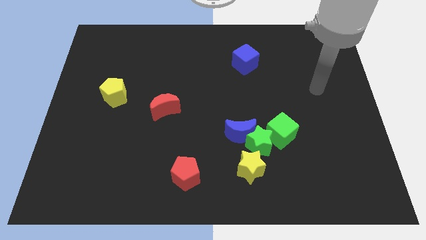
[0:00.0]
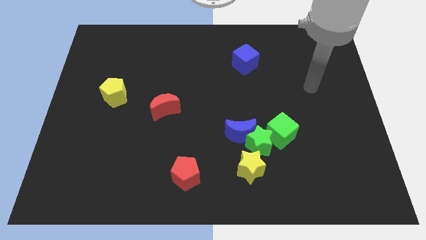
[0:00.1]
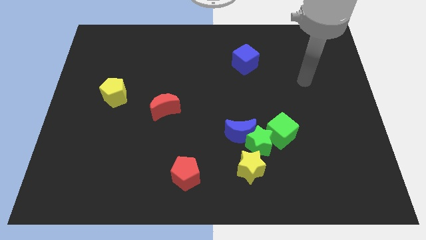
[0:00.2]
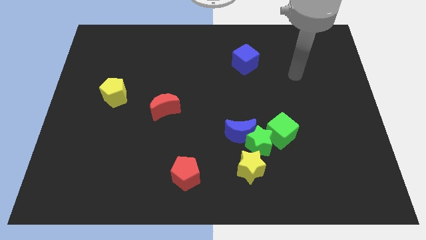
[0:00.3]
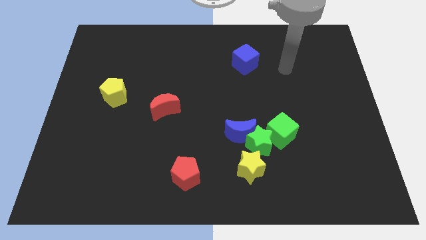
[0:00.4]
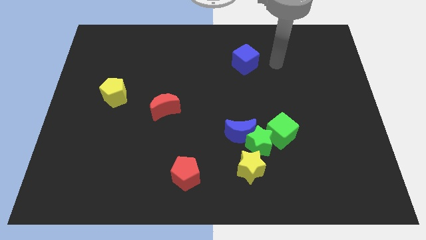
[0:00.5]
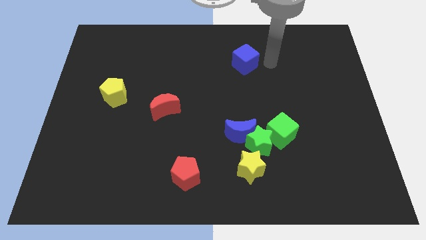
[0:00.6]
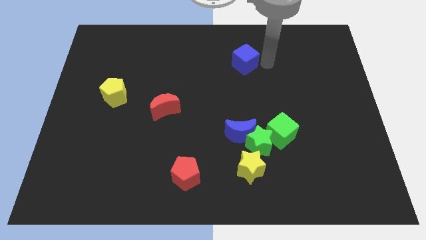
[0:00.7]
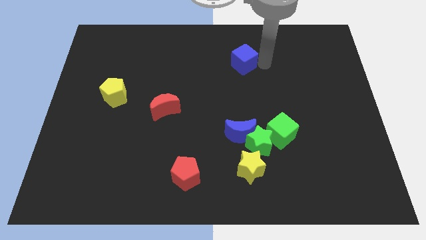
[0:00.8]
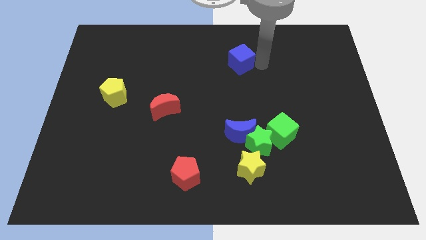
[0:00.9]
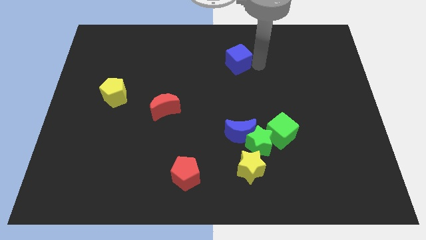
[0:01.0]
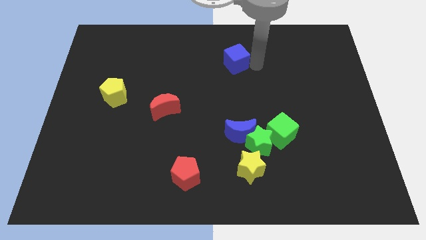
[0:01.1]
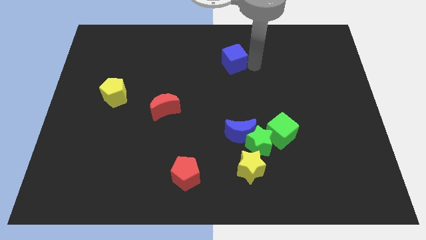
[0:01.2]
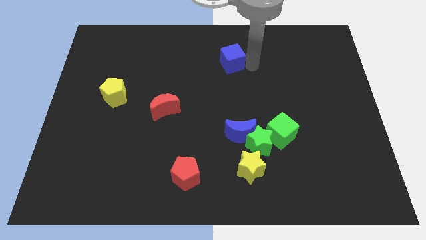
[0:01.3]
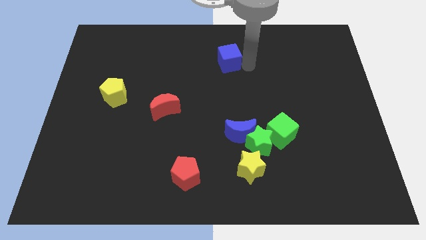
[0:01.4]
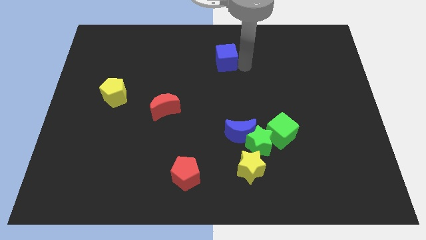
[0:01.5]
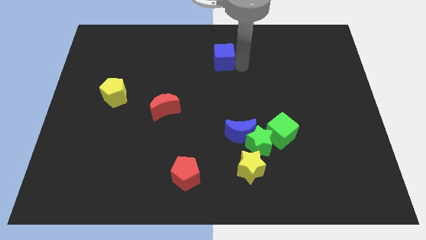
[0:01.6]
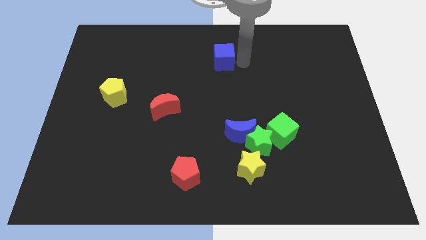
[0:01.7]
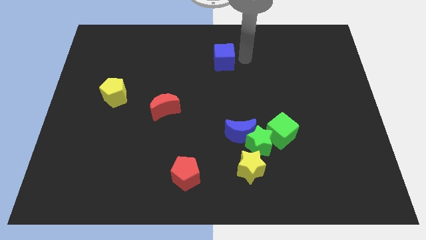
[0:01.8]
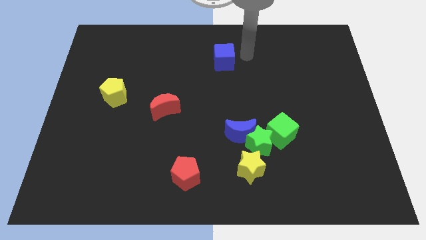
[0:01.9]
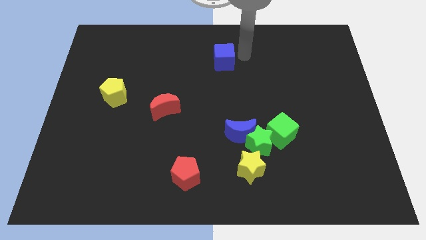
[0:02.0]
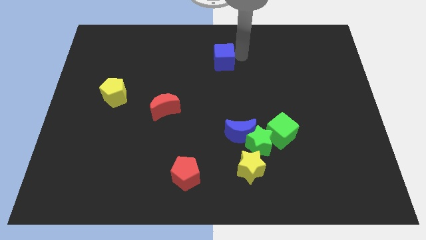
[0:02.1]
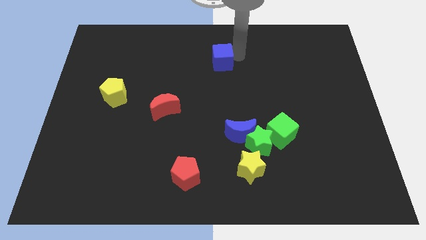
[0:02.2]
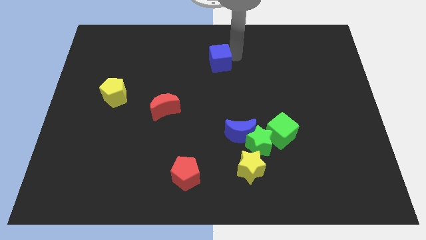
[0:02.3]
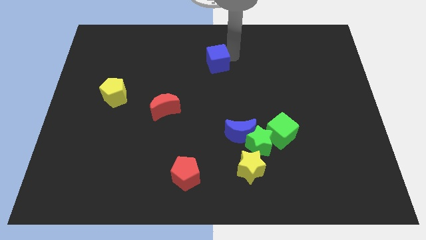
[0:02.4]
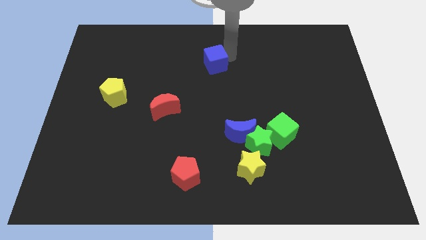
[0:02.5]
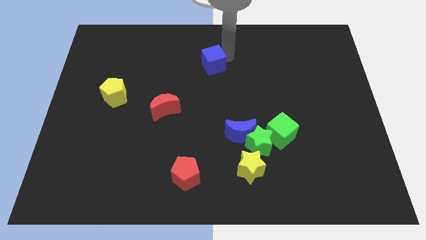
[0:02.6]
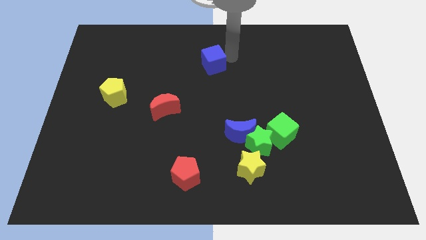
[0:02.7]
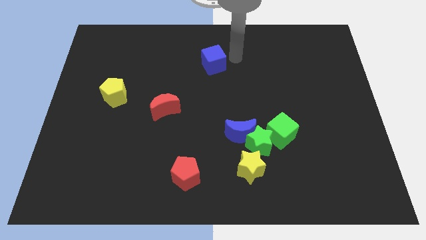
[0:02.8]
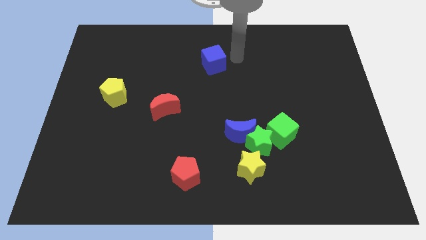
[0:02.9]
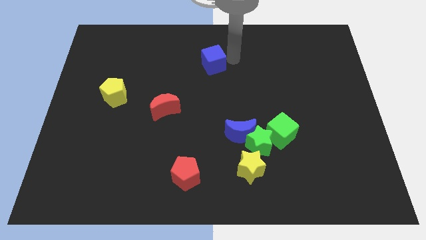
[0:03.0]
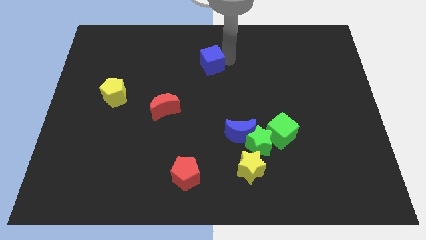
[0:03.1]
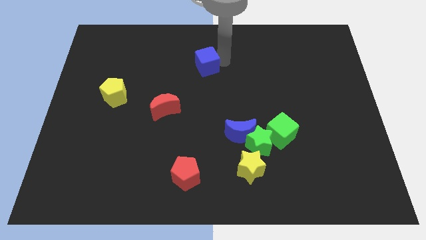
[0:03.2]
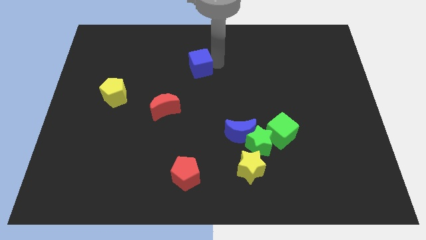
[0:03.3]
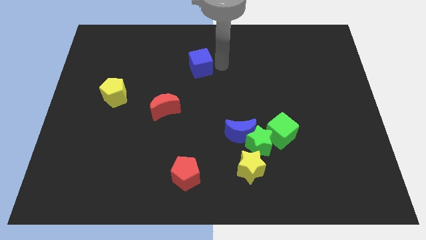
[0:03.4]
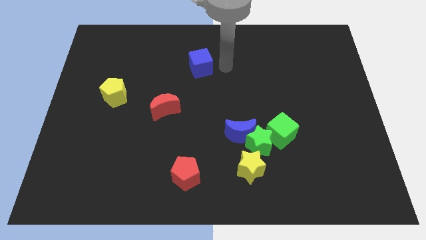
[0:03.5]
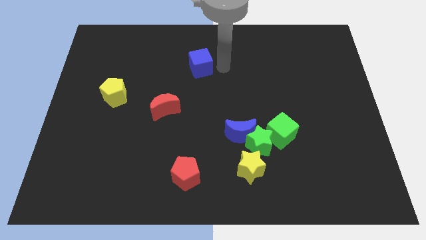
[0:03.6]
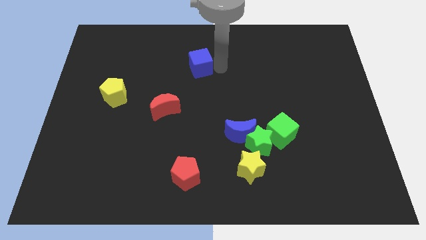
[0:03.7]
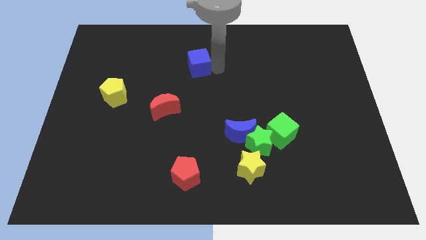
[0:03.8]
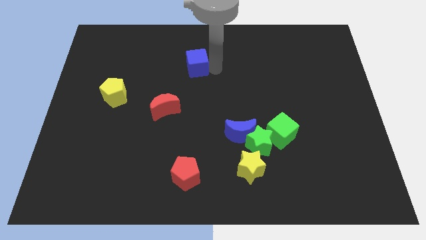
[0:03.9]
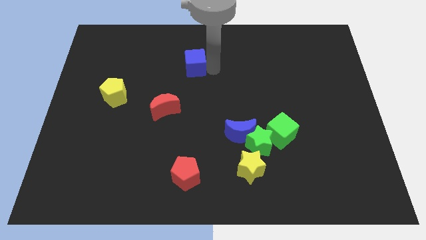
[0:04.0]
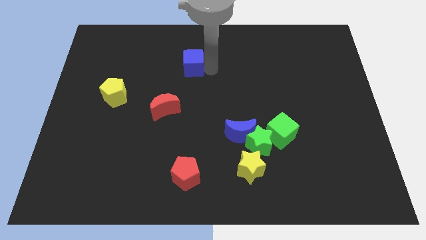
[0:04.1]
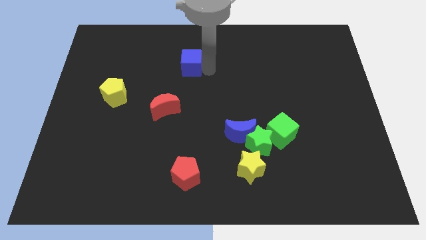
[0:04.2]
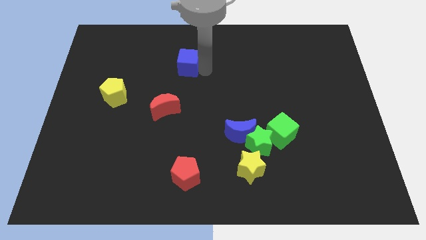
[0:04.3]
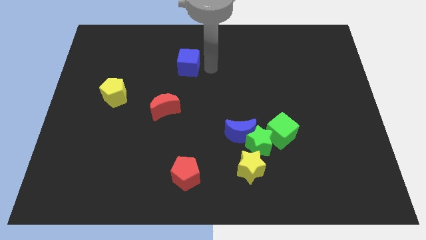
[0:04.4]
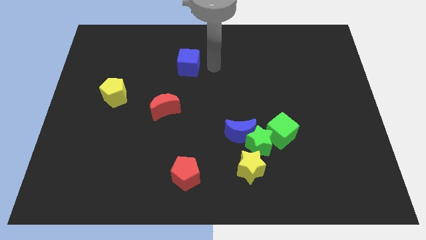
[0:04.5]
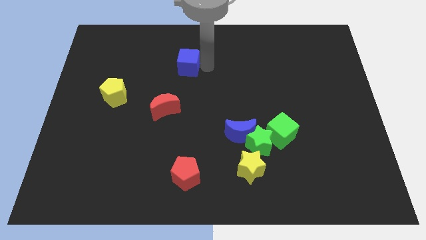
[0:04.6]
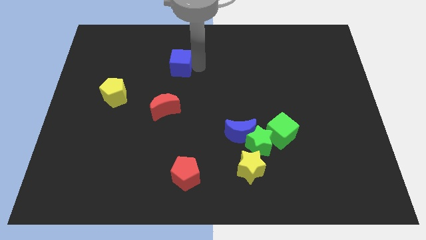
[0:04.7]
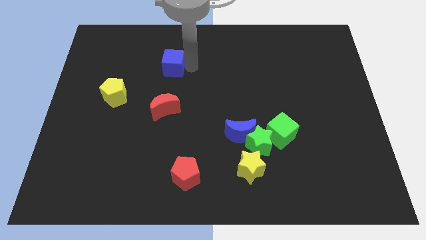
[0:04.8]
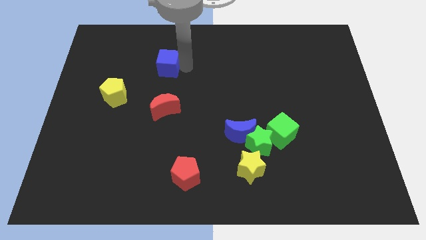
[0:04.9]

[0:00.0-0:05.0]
push the blue cube to the left

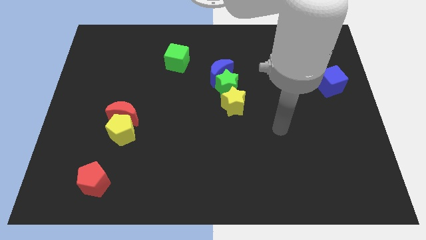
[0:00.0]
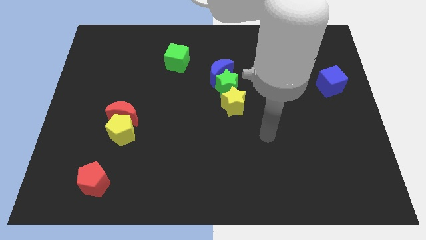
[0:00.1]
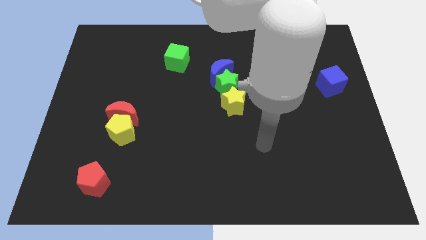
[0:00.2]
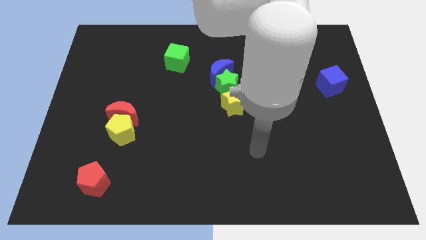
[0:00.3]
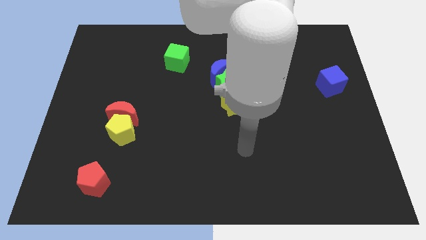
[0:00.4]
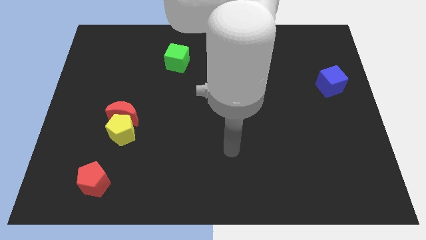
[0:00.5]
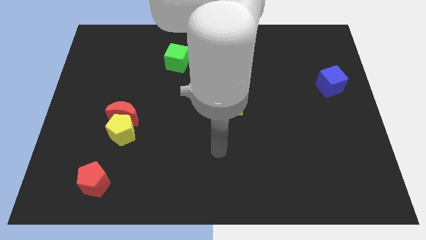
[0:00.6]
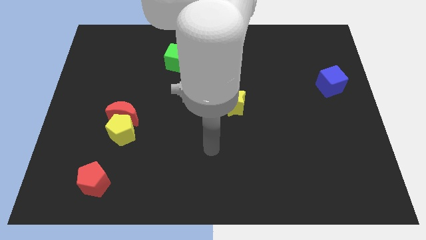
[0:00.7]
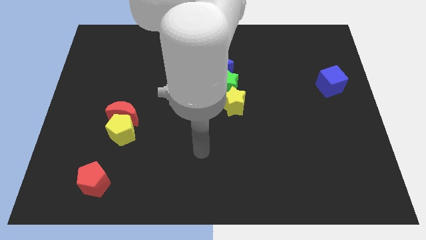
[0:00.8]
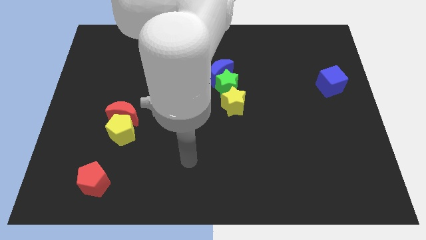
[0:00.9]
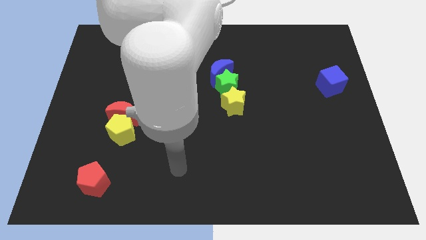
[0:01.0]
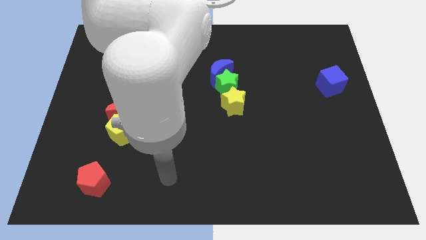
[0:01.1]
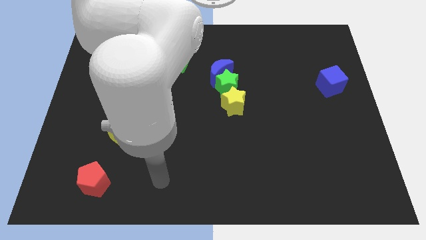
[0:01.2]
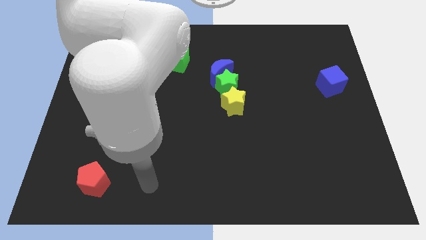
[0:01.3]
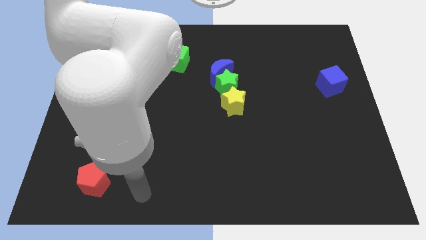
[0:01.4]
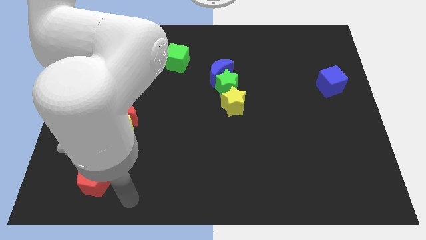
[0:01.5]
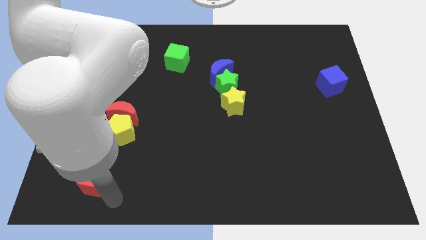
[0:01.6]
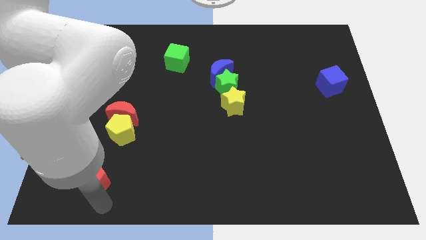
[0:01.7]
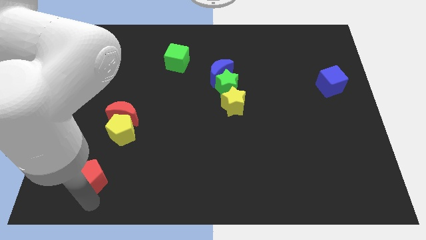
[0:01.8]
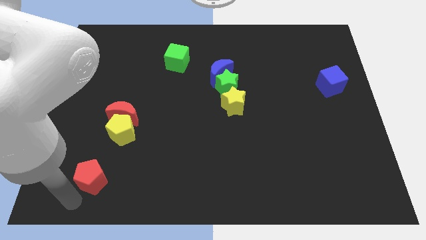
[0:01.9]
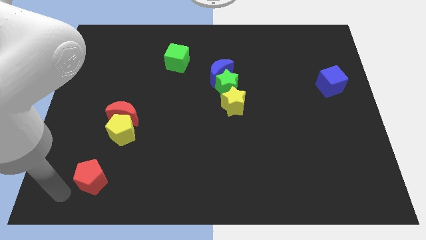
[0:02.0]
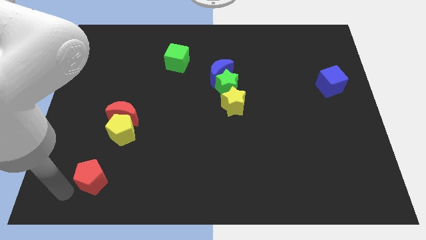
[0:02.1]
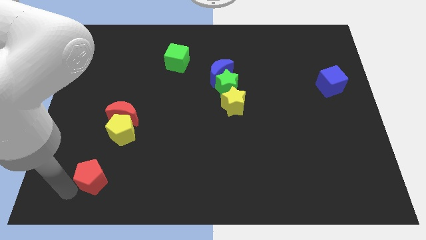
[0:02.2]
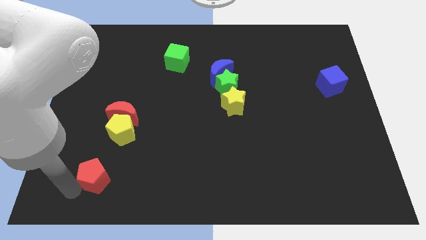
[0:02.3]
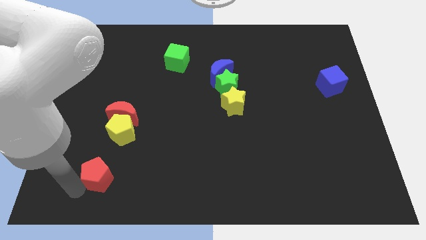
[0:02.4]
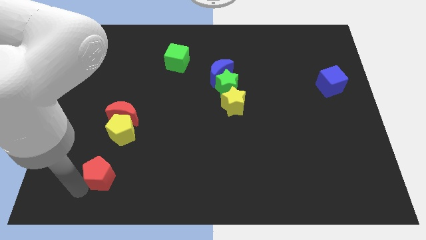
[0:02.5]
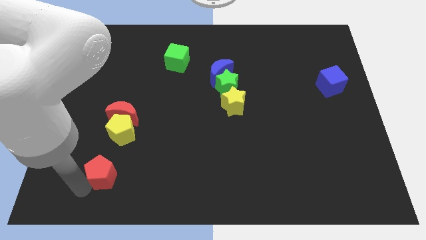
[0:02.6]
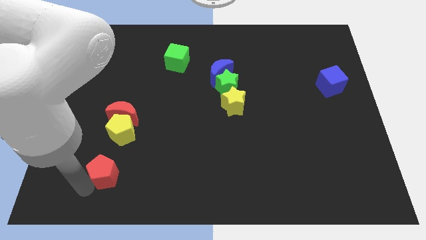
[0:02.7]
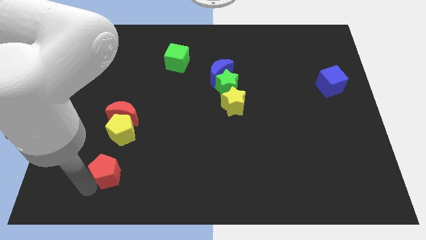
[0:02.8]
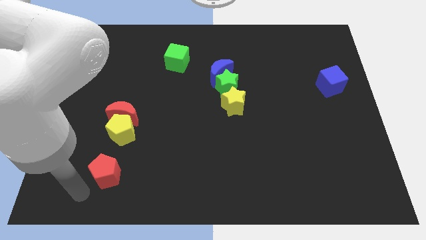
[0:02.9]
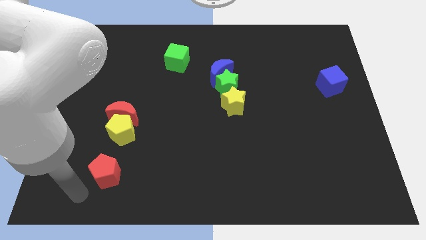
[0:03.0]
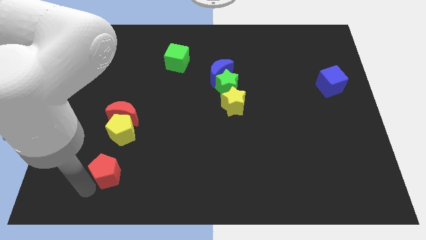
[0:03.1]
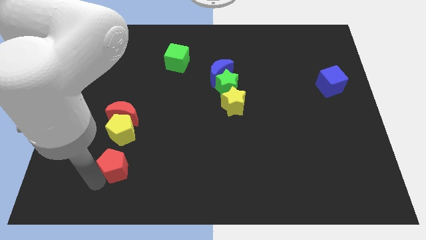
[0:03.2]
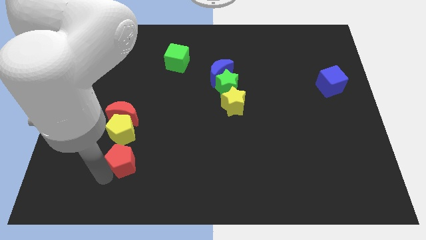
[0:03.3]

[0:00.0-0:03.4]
move the red pentagon a little bit up and then to the right

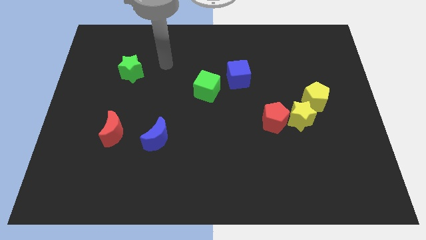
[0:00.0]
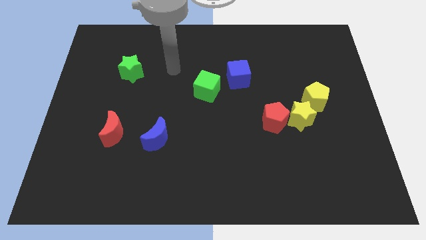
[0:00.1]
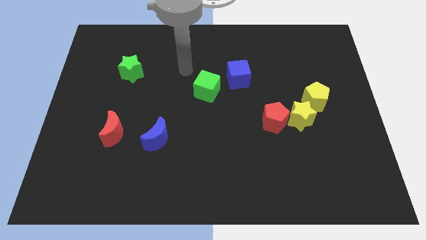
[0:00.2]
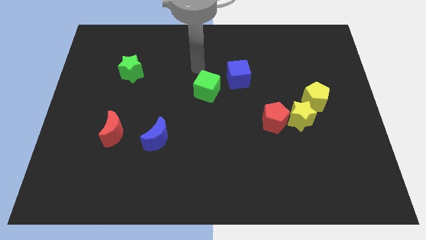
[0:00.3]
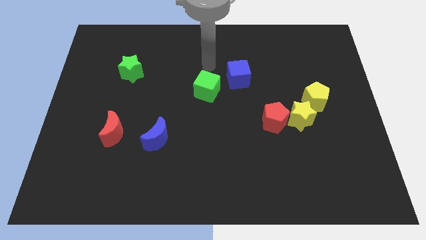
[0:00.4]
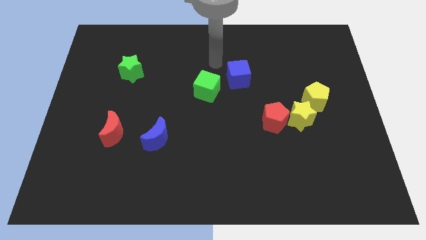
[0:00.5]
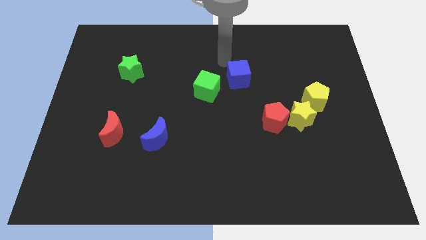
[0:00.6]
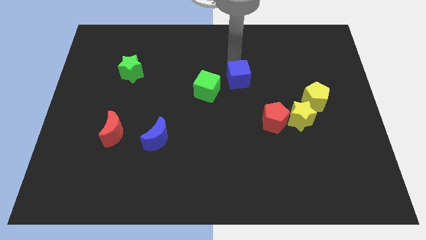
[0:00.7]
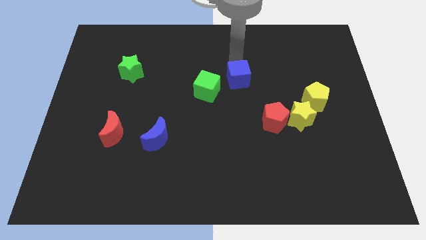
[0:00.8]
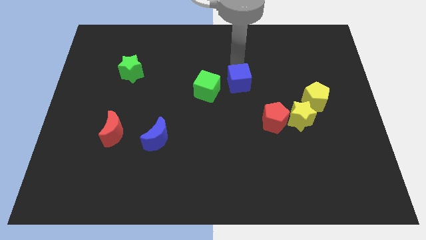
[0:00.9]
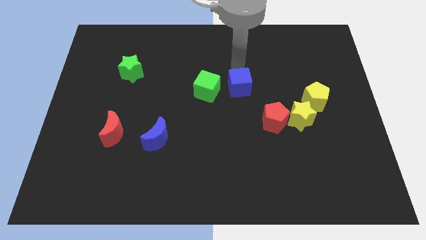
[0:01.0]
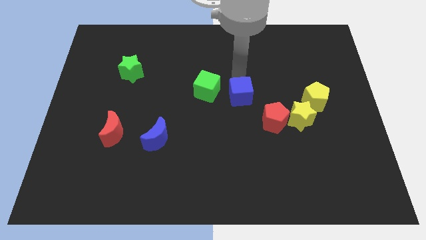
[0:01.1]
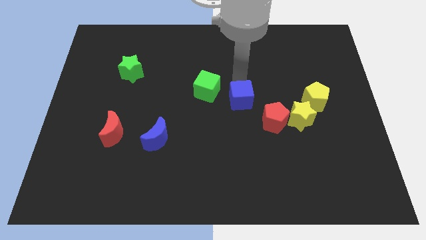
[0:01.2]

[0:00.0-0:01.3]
push the blue cube somewhat down
